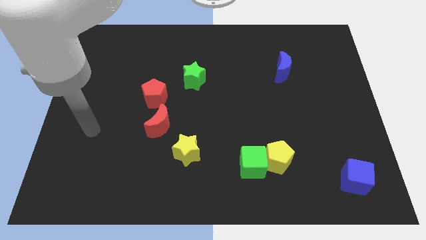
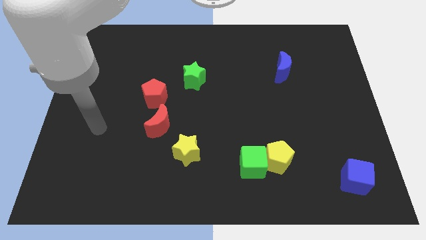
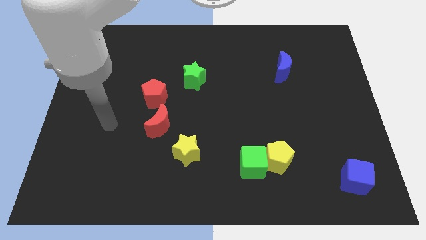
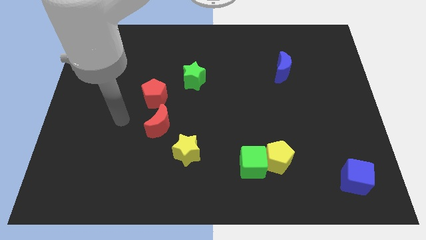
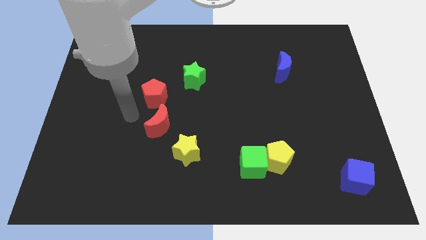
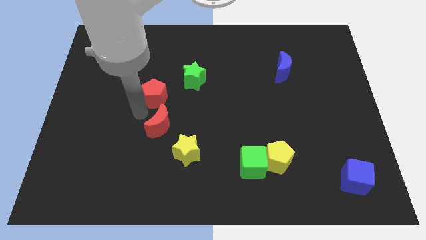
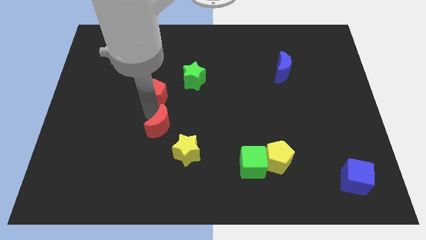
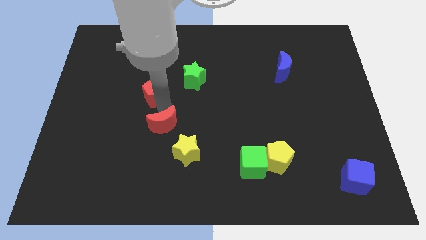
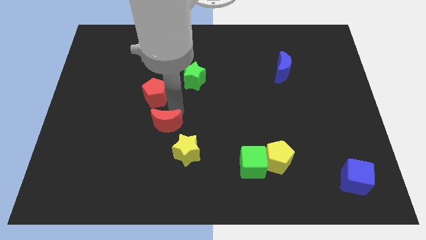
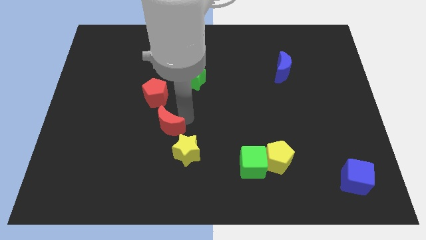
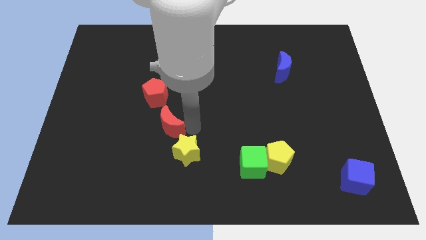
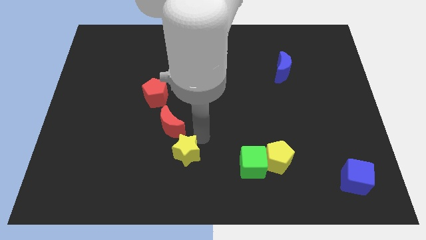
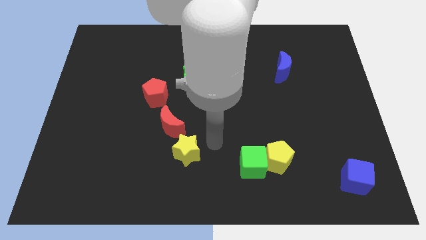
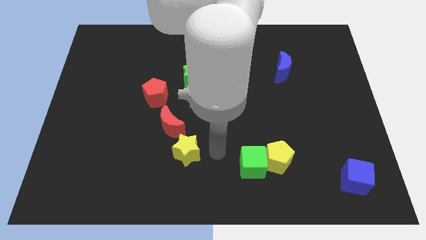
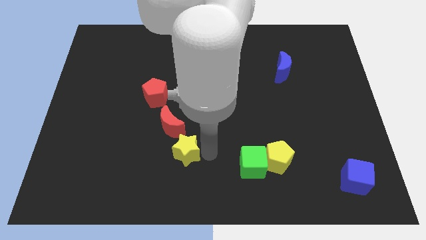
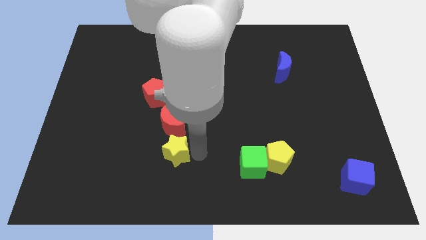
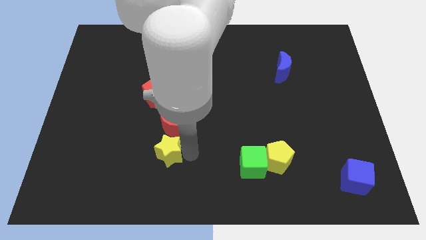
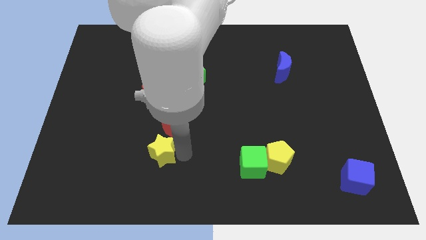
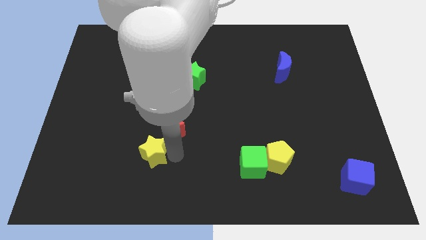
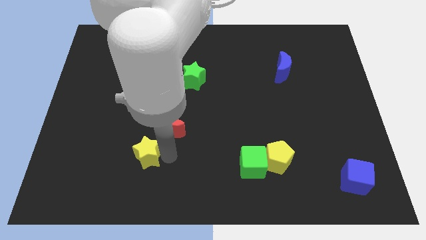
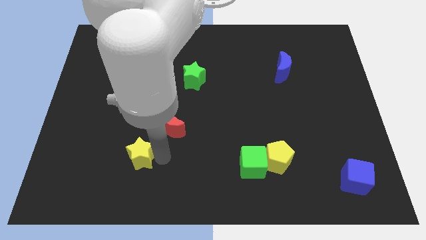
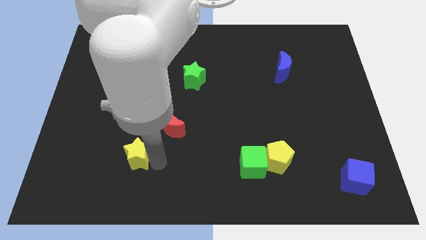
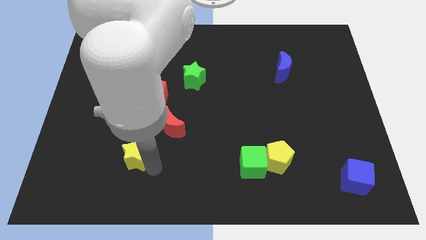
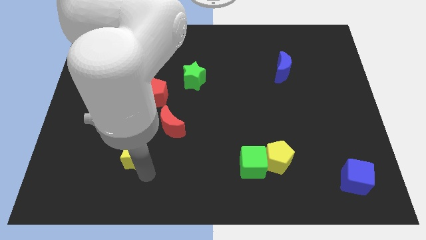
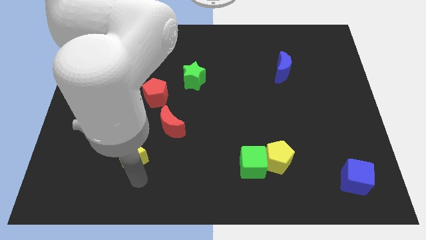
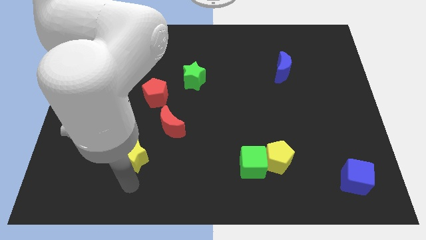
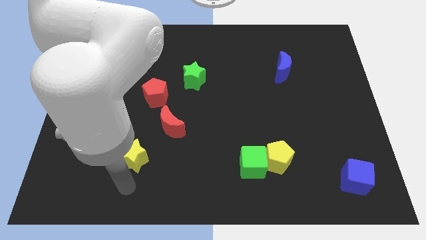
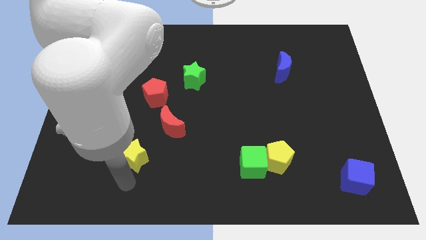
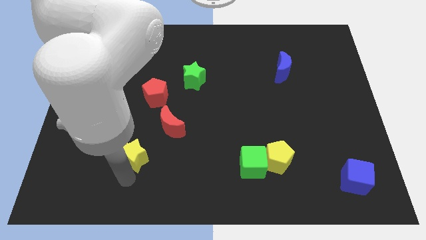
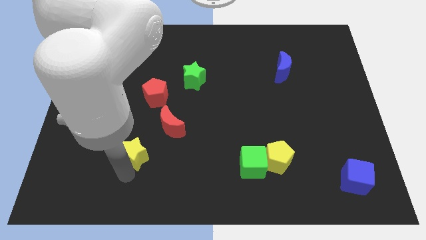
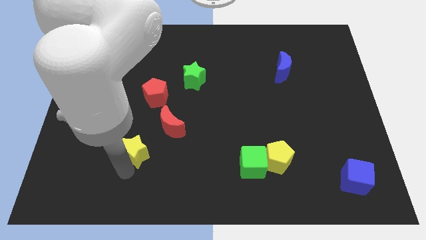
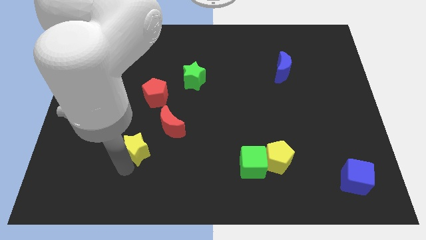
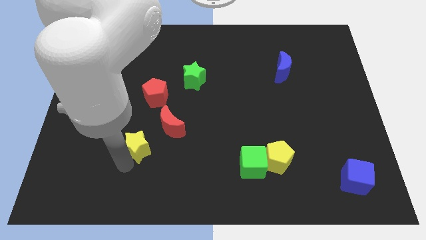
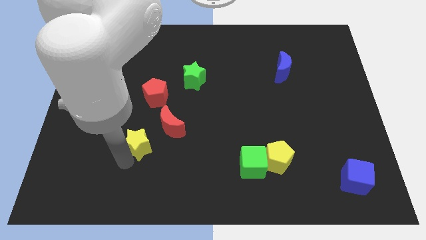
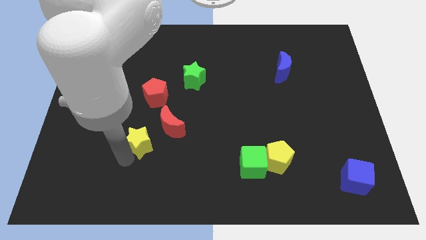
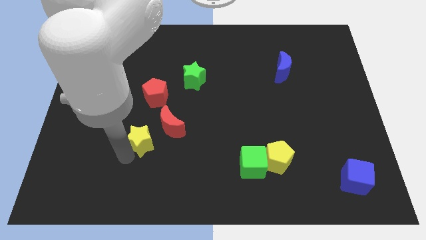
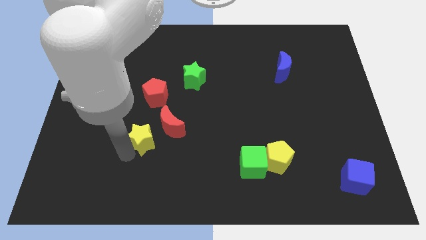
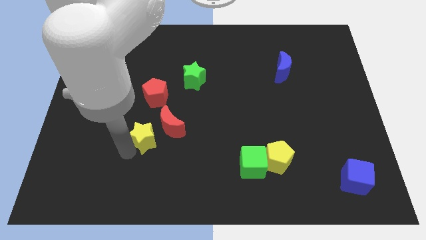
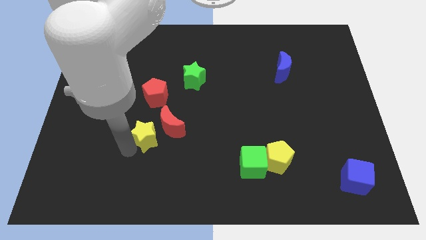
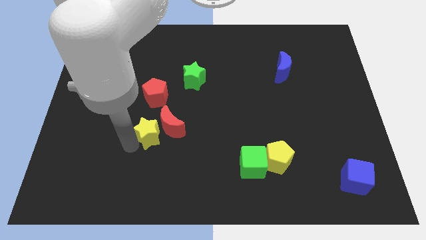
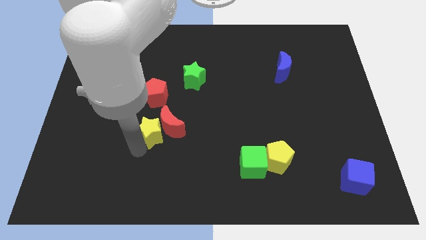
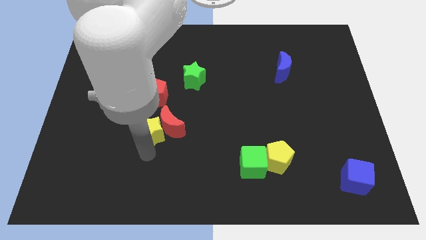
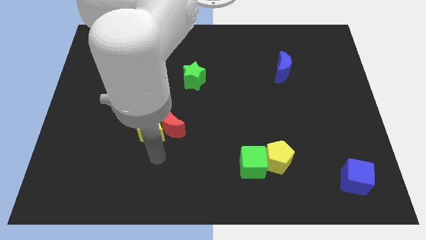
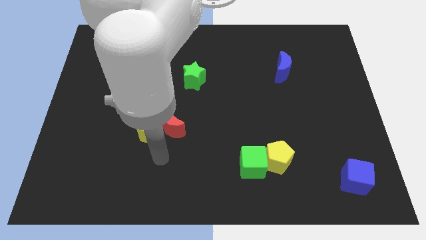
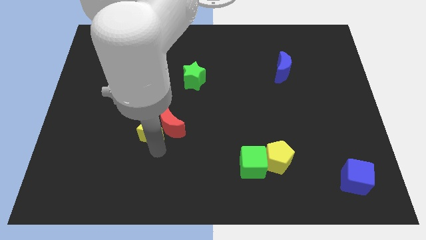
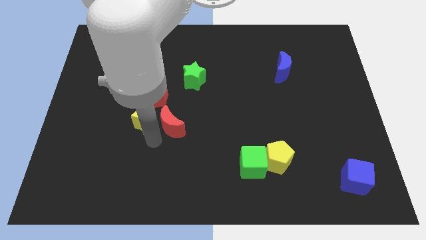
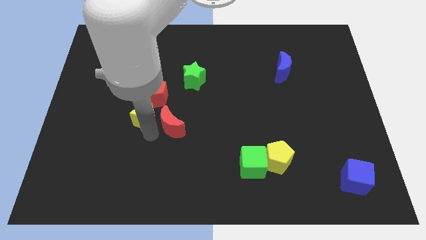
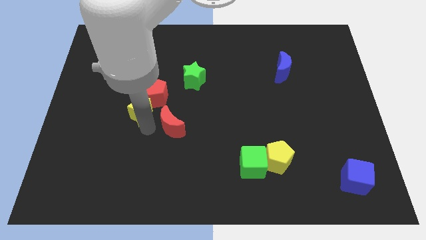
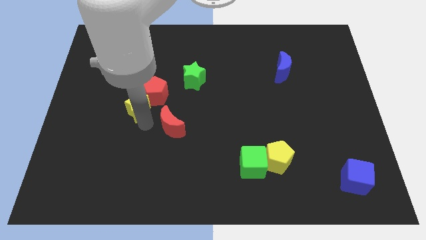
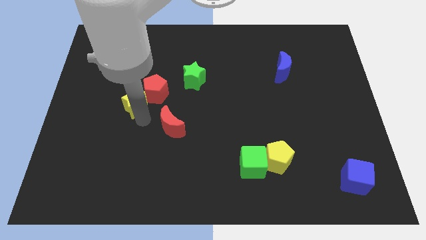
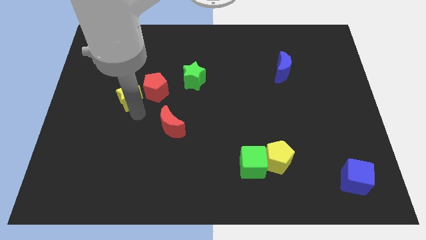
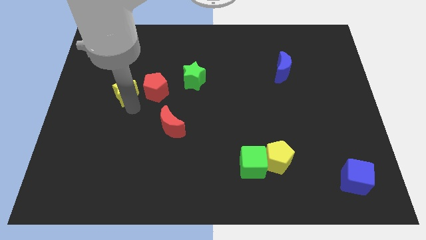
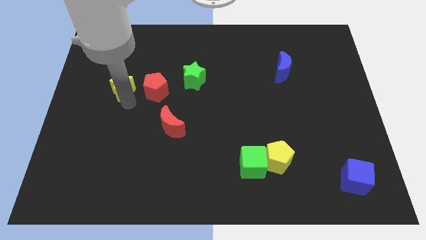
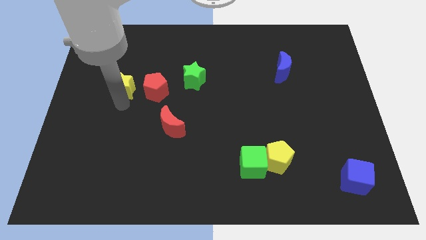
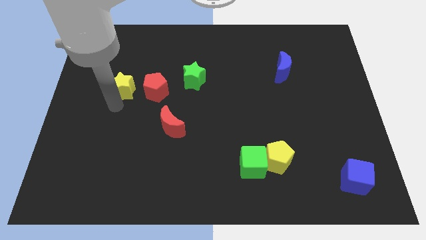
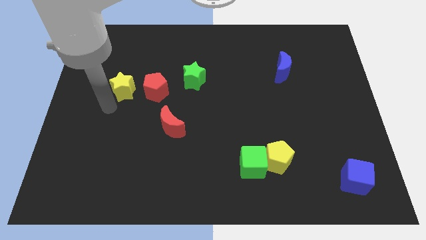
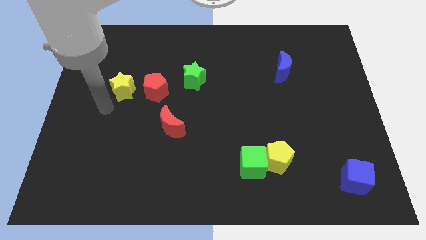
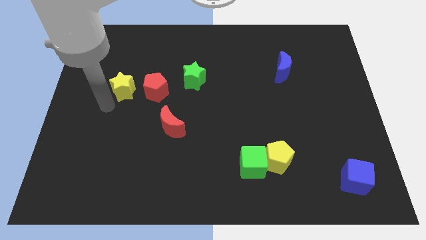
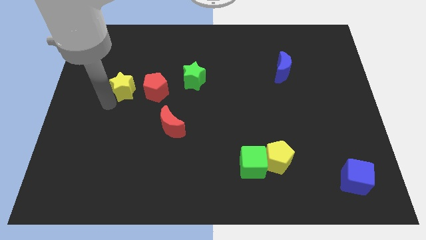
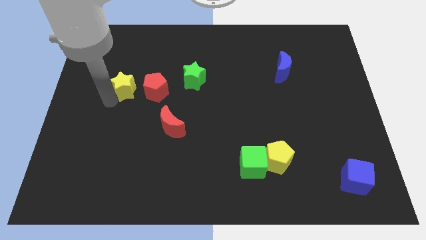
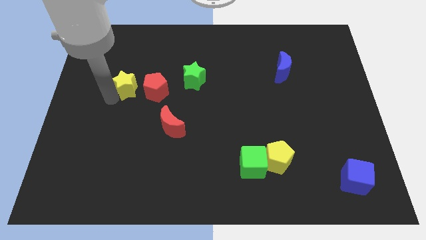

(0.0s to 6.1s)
put the yellow star to the top left side of the red pentagon

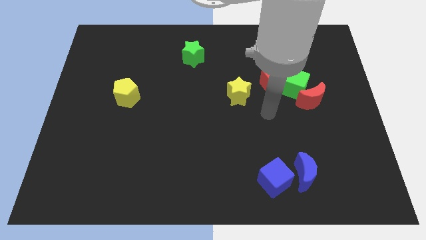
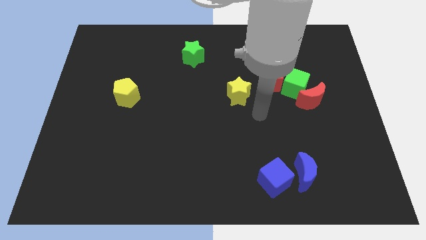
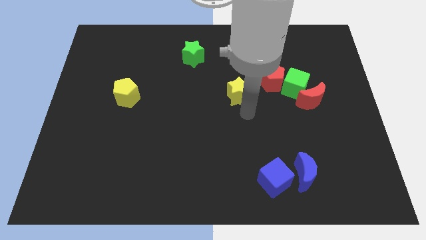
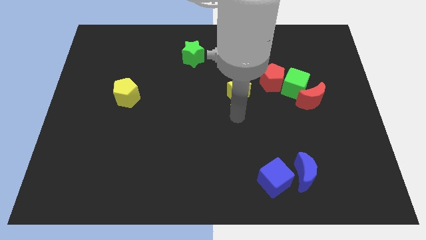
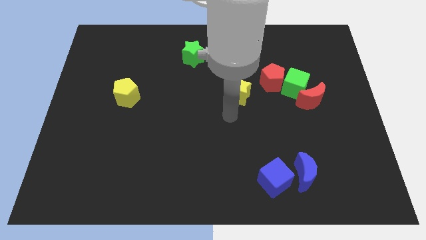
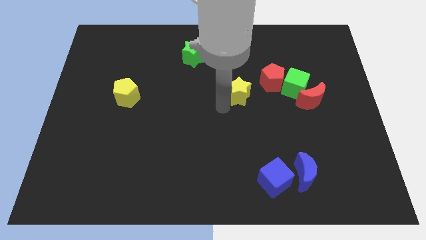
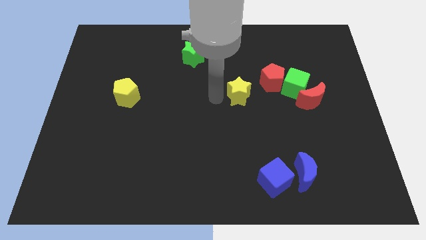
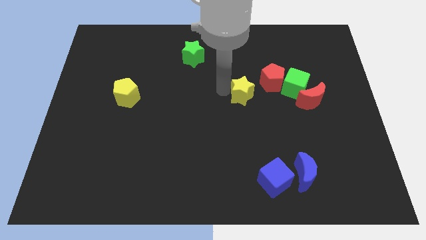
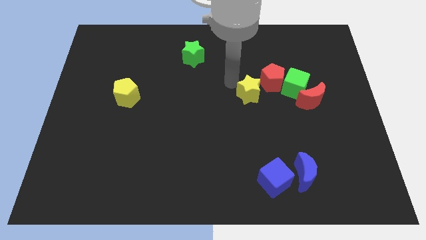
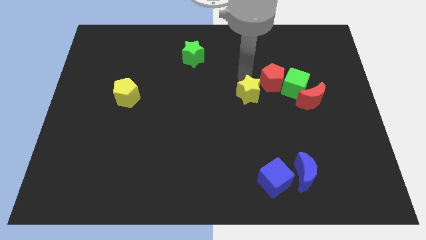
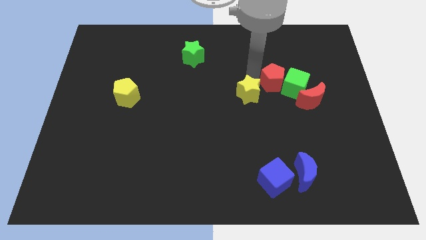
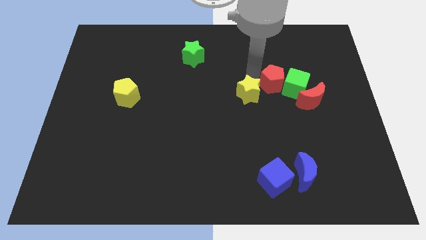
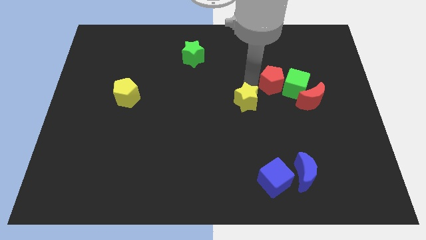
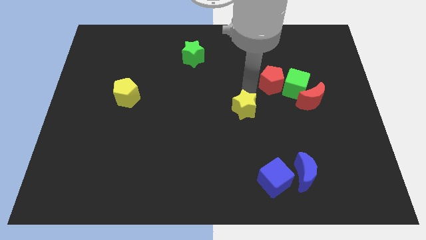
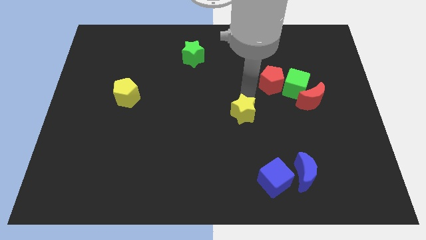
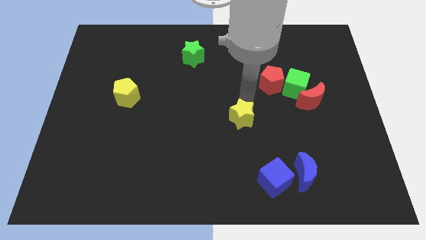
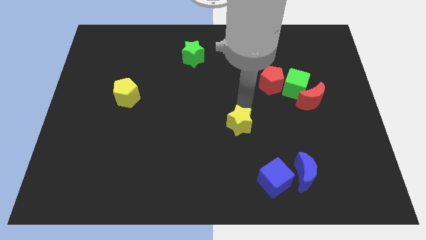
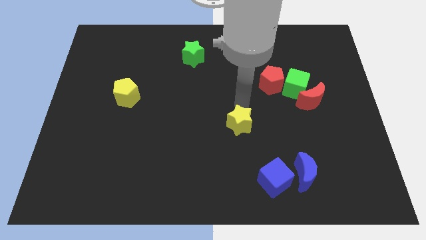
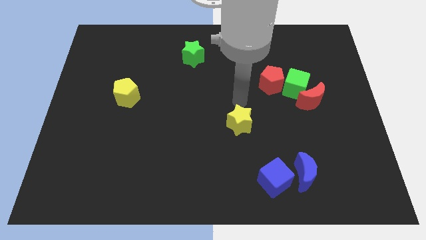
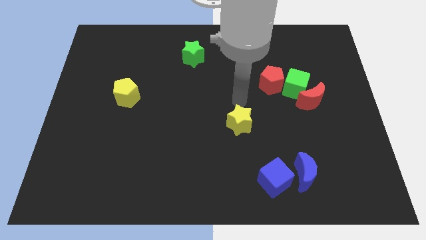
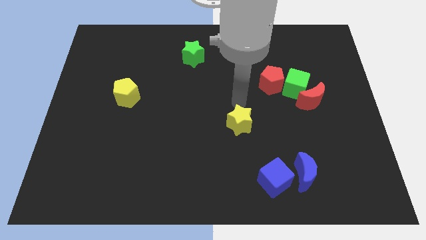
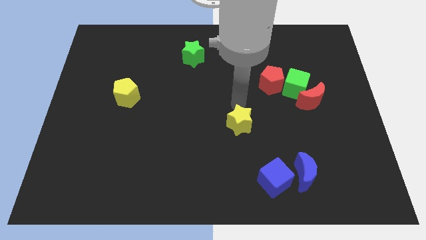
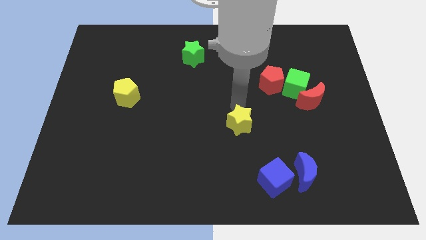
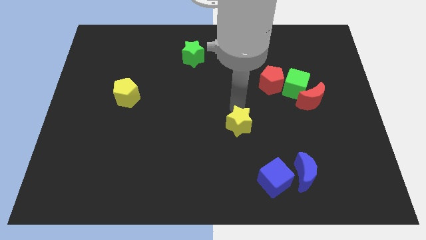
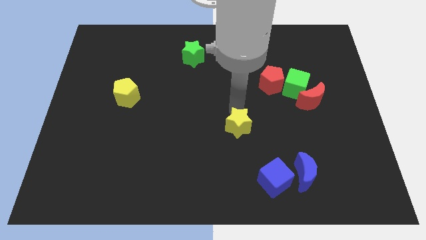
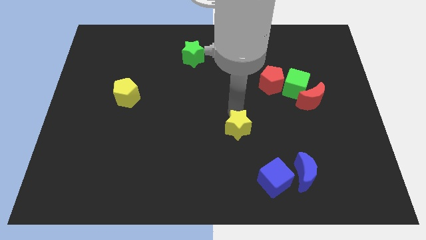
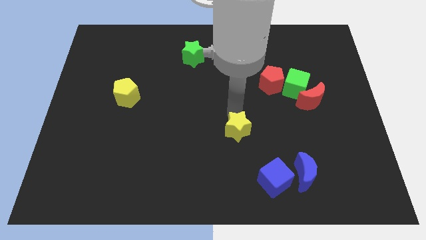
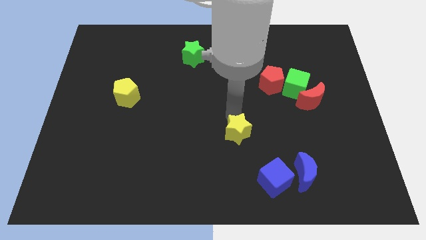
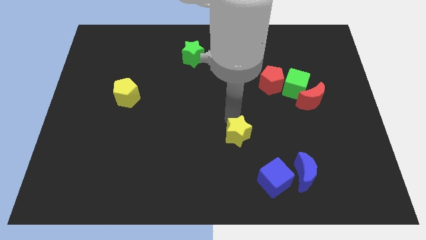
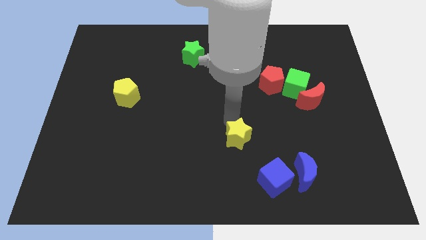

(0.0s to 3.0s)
slide the yellow star to the top left side of the blue cube
